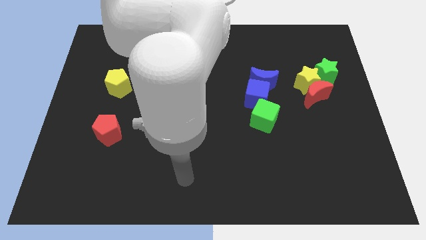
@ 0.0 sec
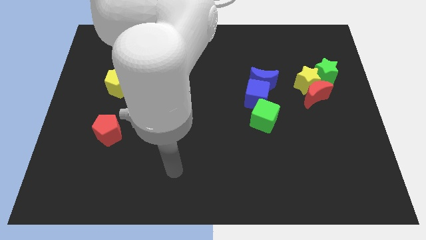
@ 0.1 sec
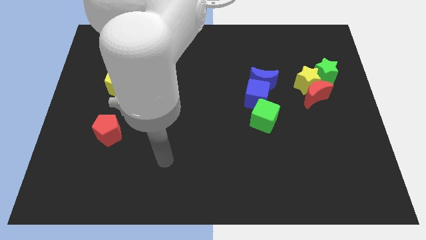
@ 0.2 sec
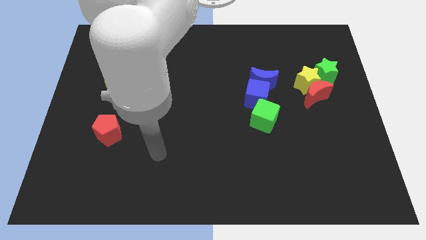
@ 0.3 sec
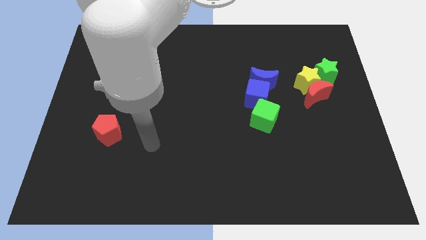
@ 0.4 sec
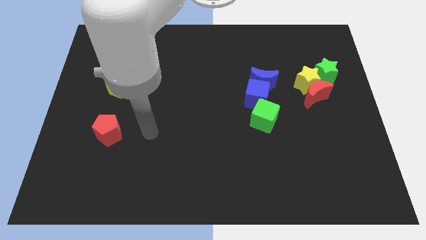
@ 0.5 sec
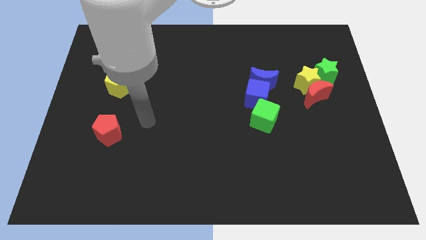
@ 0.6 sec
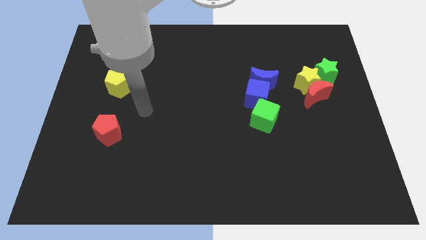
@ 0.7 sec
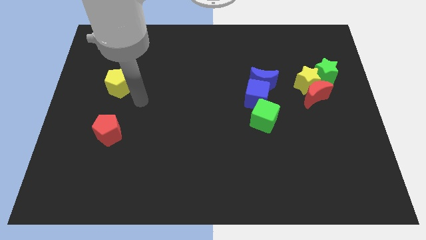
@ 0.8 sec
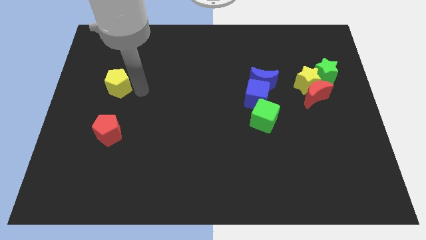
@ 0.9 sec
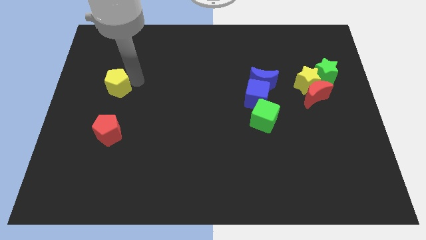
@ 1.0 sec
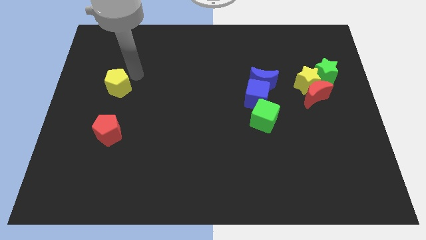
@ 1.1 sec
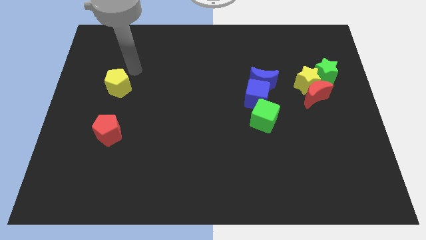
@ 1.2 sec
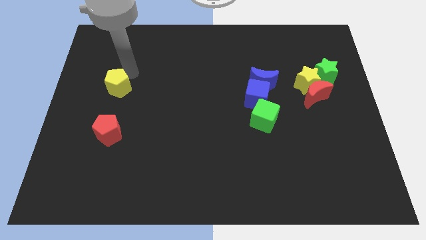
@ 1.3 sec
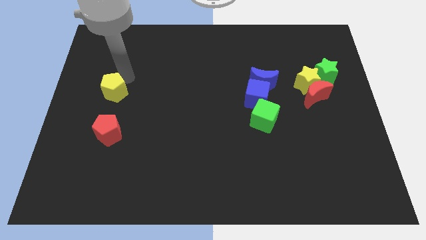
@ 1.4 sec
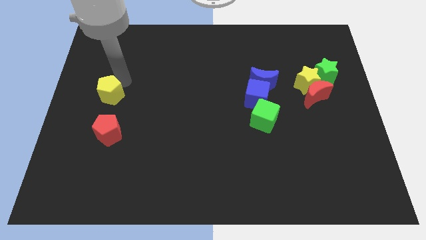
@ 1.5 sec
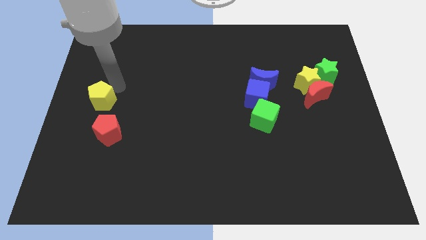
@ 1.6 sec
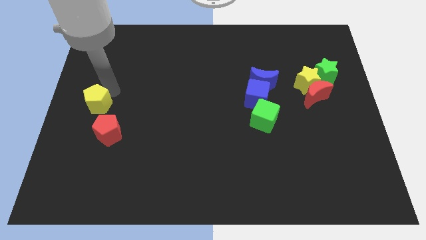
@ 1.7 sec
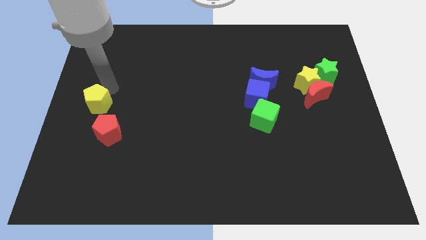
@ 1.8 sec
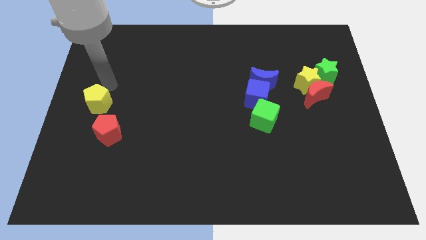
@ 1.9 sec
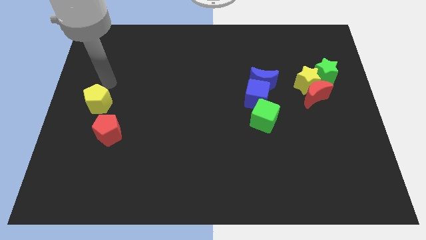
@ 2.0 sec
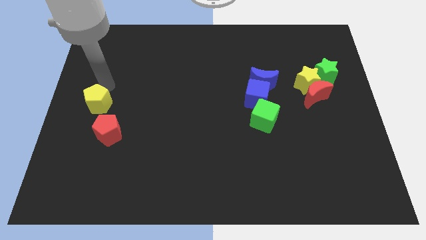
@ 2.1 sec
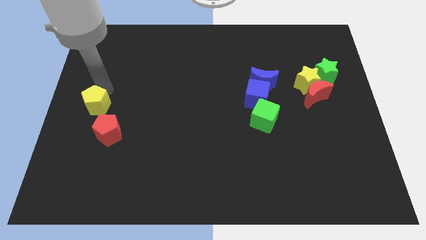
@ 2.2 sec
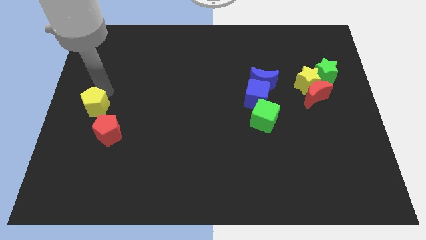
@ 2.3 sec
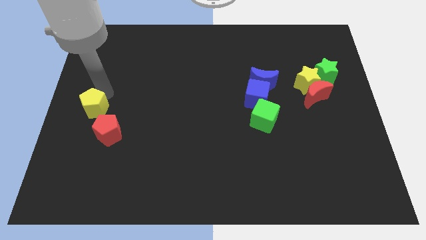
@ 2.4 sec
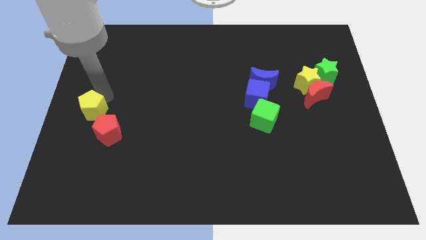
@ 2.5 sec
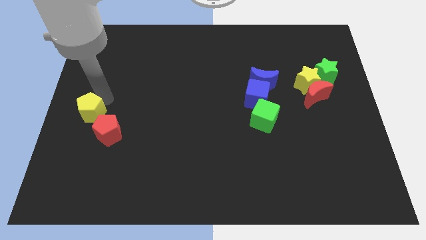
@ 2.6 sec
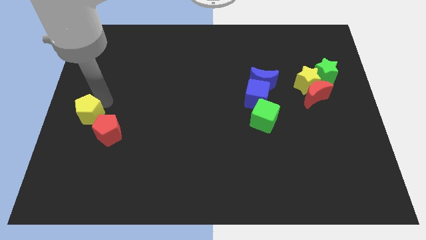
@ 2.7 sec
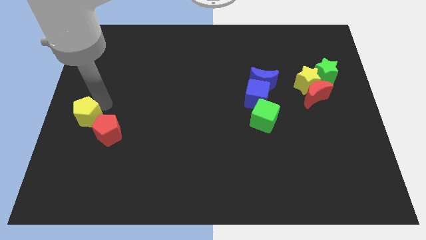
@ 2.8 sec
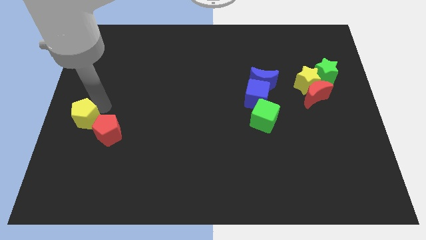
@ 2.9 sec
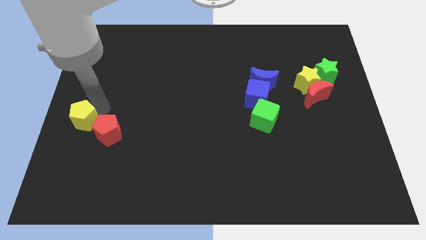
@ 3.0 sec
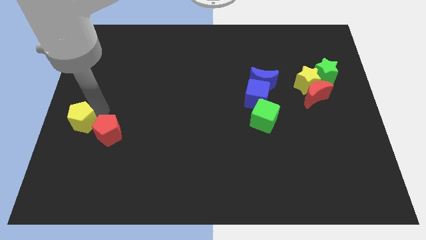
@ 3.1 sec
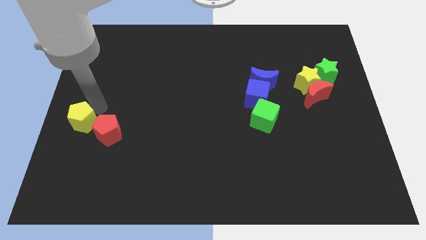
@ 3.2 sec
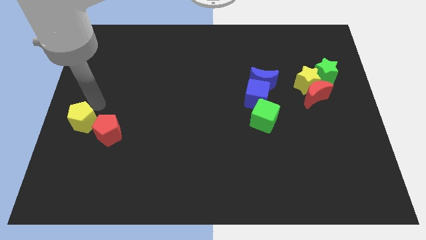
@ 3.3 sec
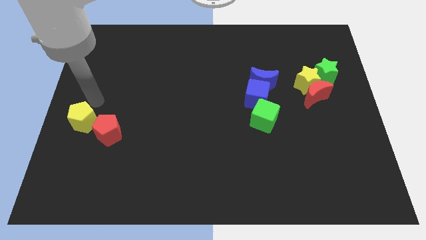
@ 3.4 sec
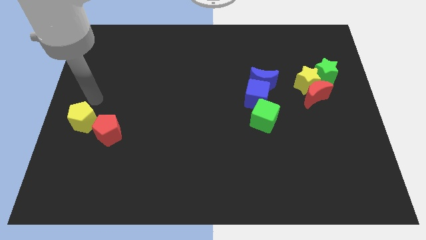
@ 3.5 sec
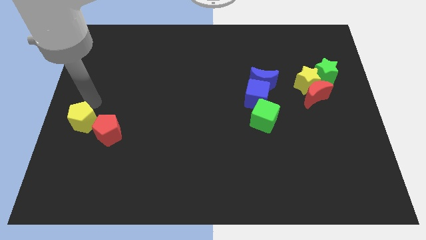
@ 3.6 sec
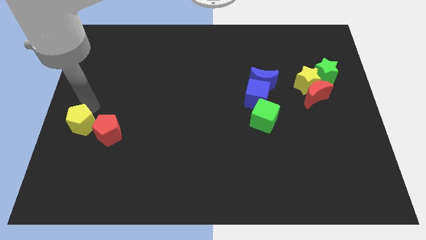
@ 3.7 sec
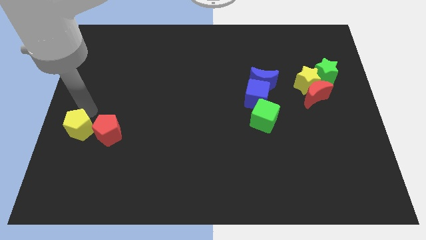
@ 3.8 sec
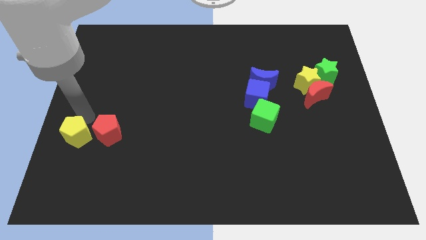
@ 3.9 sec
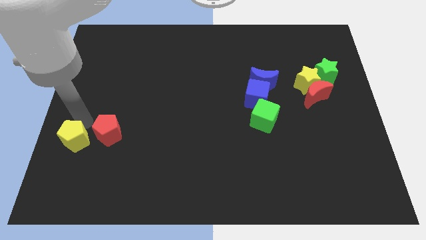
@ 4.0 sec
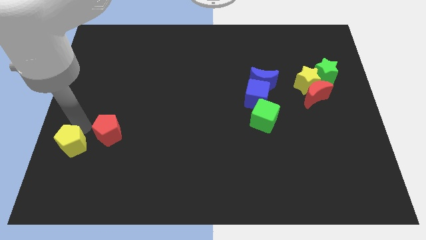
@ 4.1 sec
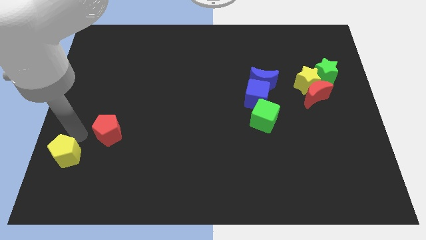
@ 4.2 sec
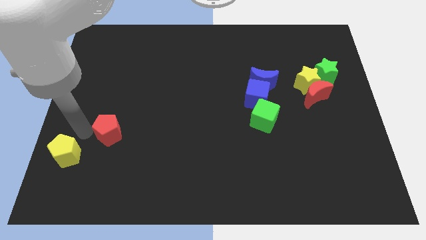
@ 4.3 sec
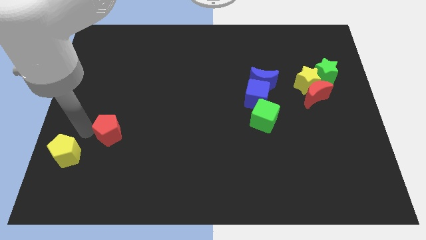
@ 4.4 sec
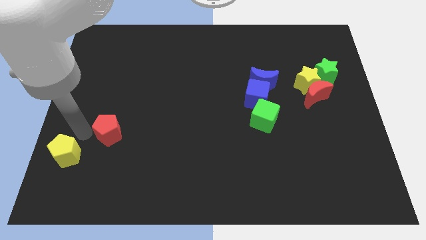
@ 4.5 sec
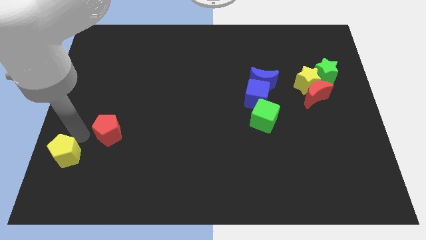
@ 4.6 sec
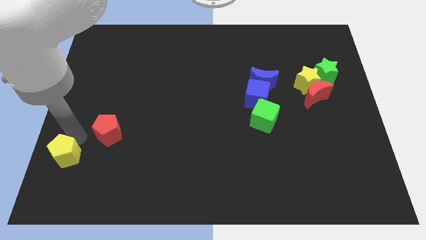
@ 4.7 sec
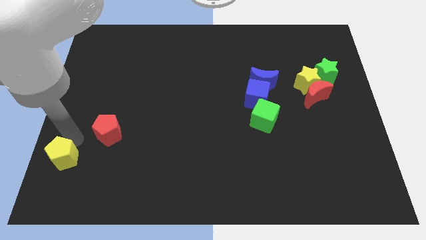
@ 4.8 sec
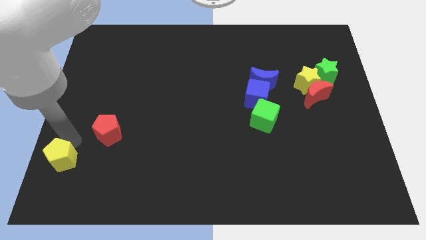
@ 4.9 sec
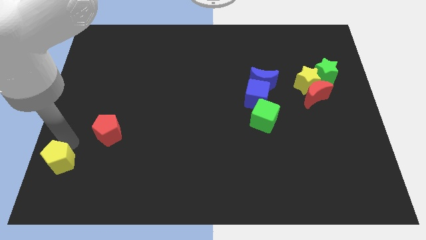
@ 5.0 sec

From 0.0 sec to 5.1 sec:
put the yellow pentagon to the lower left corner

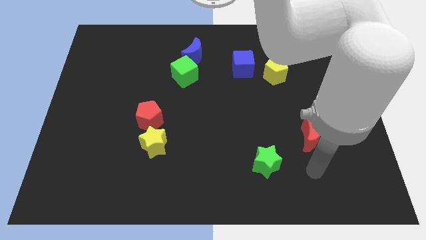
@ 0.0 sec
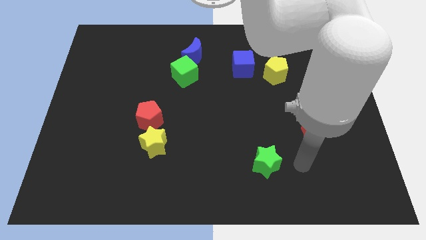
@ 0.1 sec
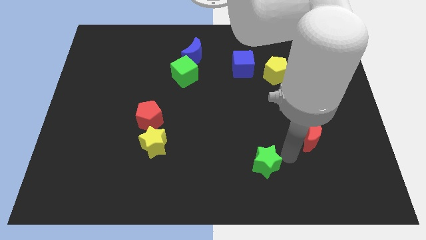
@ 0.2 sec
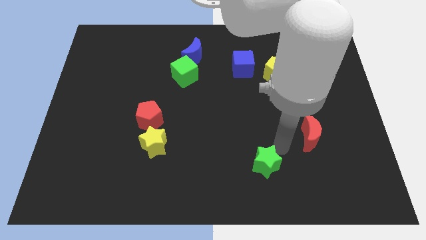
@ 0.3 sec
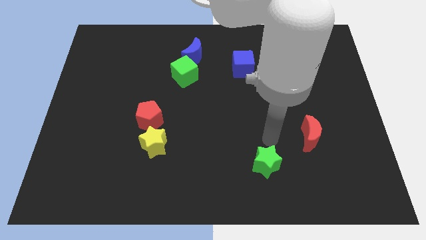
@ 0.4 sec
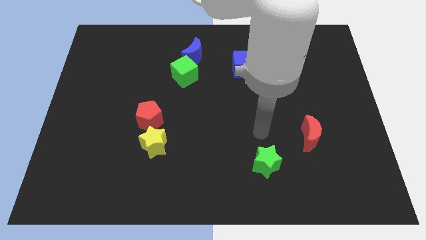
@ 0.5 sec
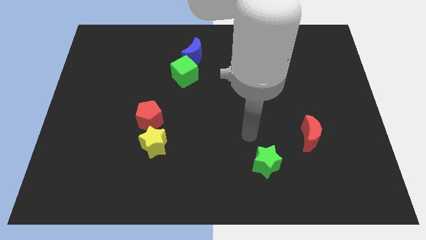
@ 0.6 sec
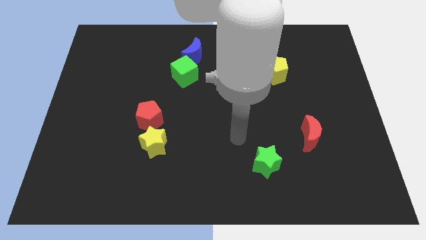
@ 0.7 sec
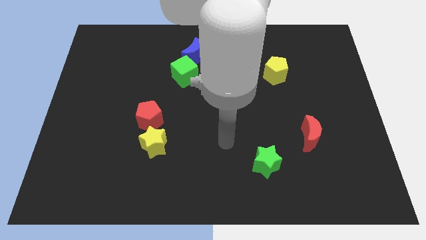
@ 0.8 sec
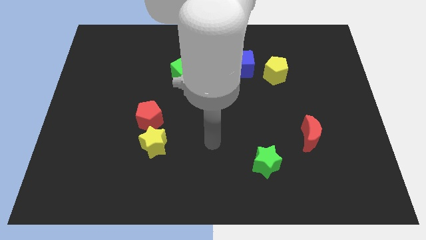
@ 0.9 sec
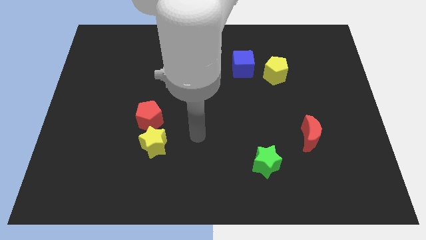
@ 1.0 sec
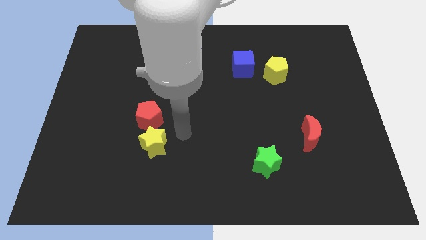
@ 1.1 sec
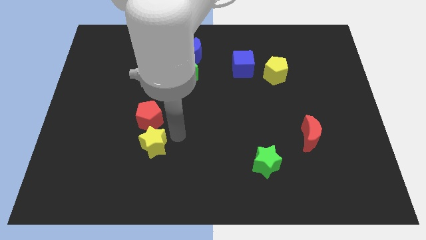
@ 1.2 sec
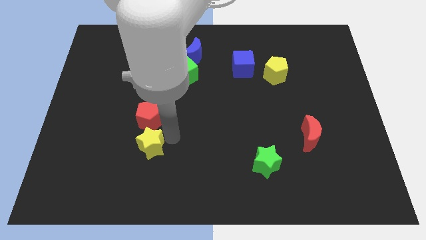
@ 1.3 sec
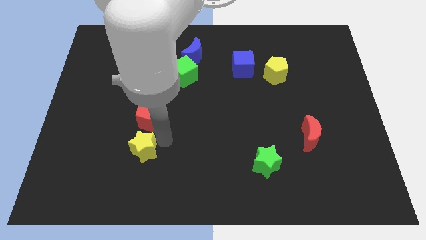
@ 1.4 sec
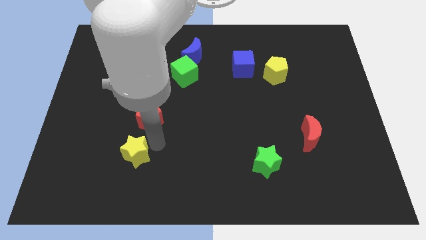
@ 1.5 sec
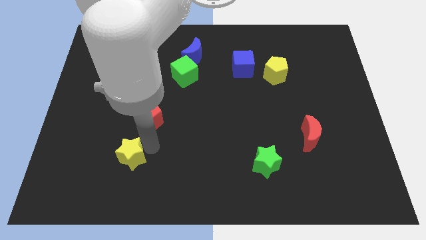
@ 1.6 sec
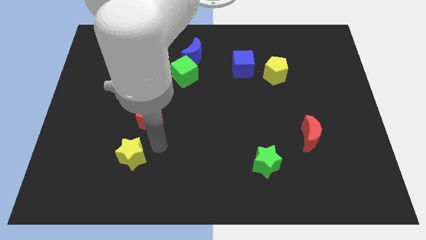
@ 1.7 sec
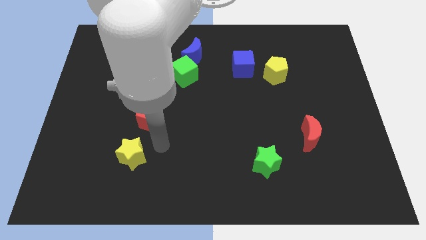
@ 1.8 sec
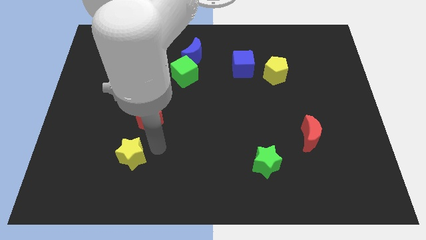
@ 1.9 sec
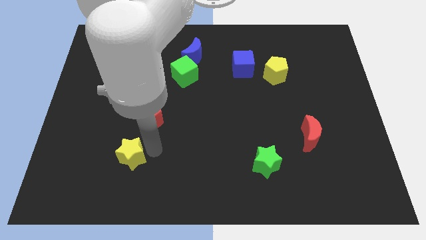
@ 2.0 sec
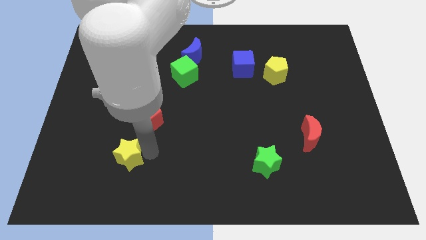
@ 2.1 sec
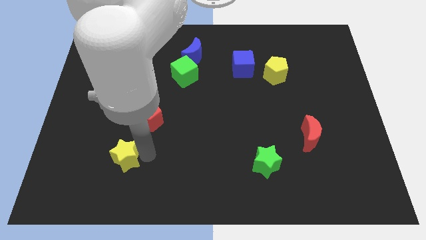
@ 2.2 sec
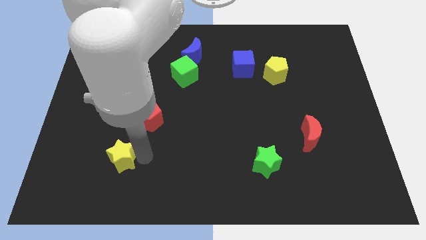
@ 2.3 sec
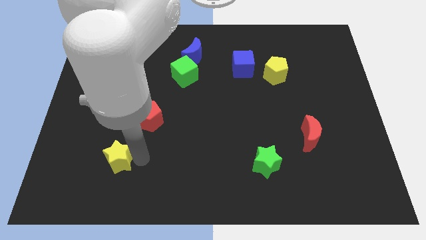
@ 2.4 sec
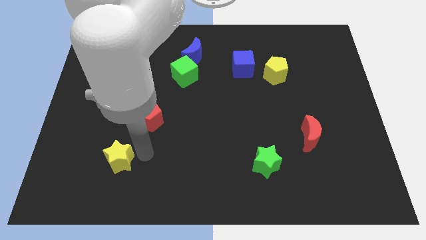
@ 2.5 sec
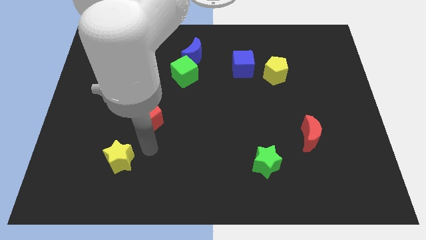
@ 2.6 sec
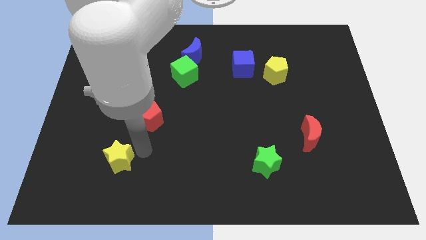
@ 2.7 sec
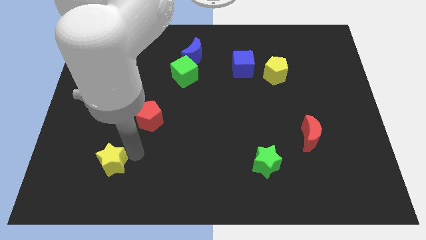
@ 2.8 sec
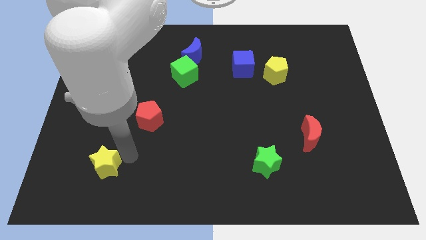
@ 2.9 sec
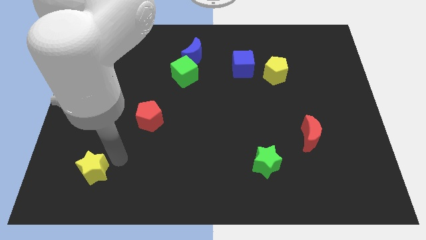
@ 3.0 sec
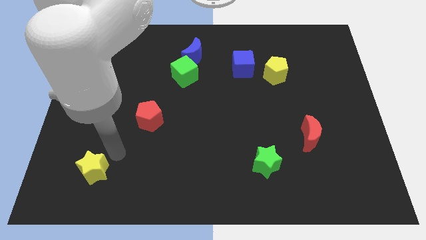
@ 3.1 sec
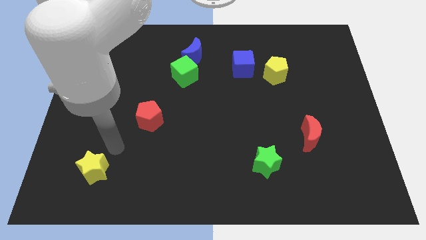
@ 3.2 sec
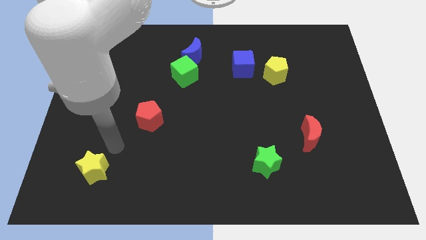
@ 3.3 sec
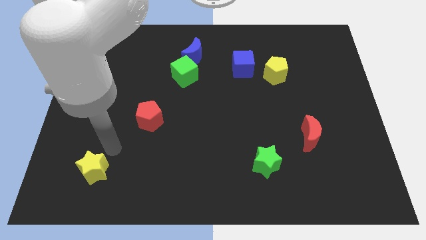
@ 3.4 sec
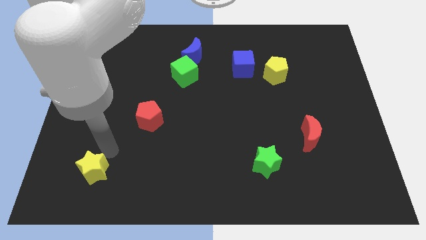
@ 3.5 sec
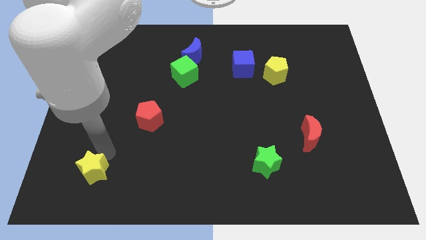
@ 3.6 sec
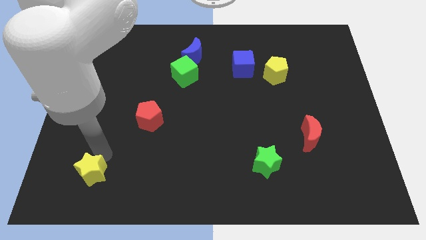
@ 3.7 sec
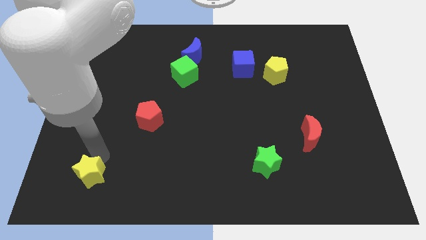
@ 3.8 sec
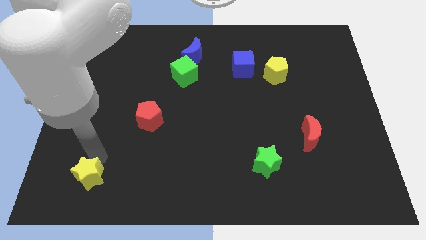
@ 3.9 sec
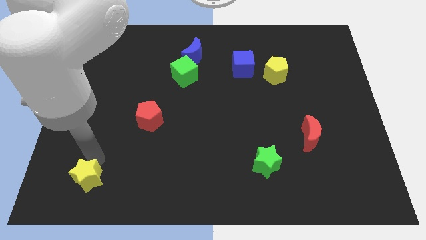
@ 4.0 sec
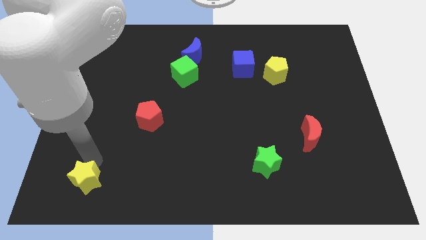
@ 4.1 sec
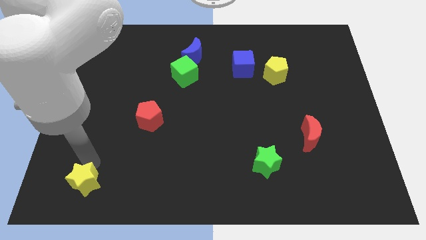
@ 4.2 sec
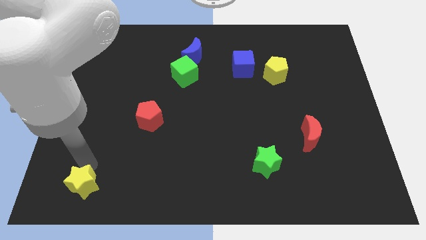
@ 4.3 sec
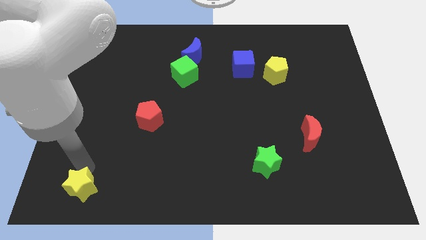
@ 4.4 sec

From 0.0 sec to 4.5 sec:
put the yellow star to the bottom left of the board
